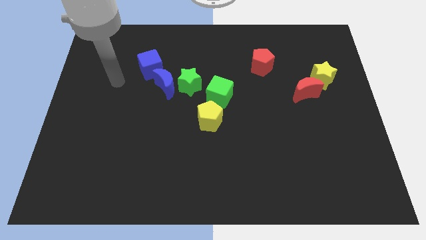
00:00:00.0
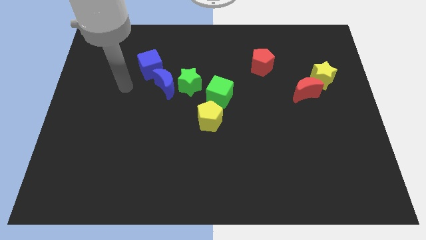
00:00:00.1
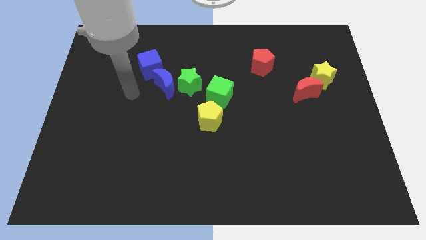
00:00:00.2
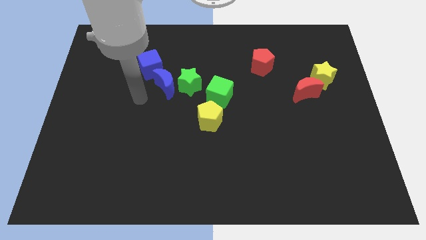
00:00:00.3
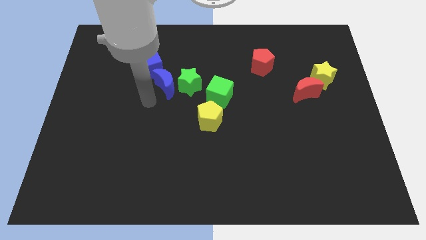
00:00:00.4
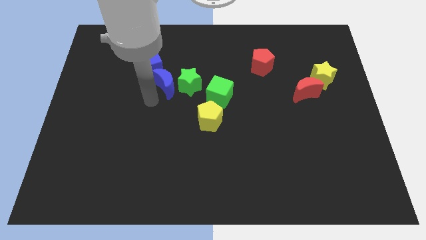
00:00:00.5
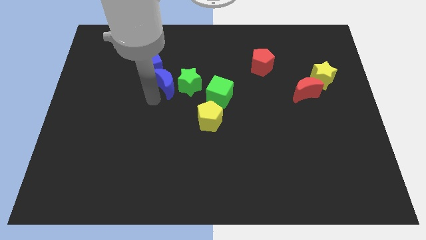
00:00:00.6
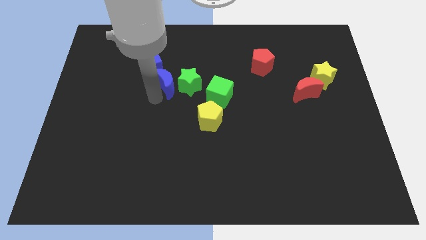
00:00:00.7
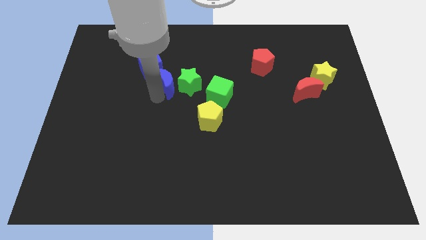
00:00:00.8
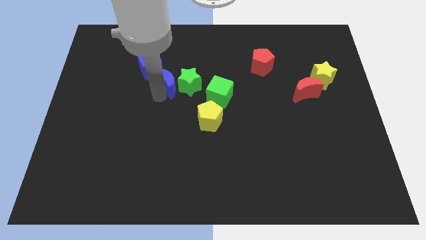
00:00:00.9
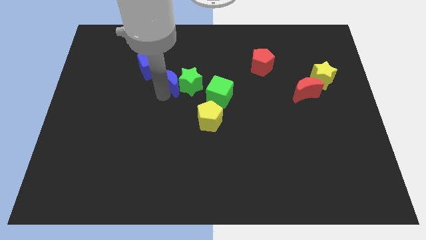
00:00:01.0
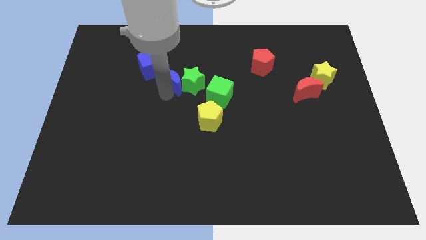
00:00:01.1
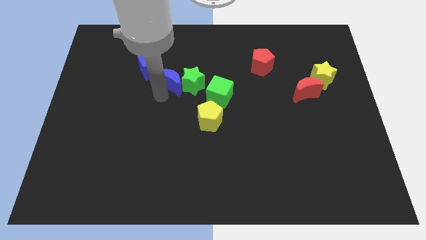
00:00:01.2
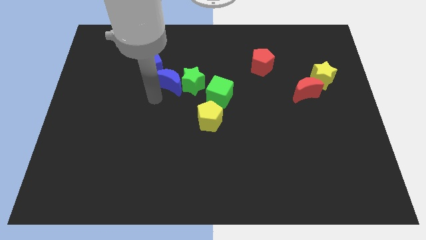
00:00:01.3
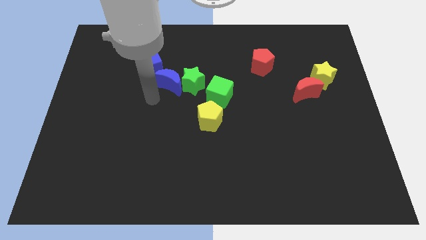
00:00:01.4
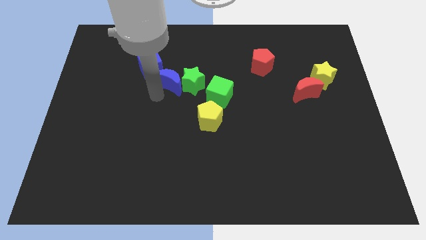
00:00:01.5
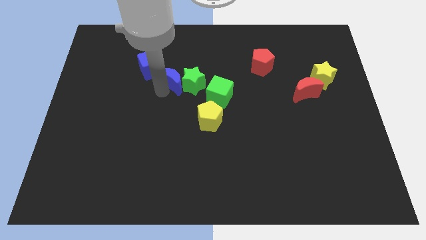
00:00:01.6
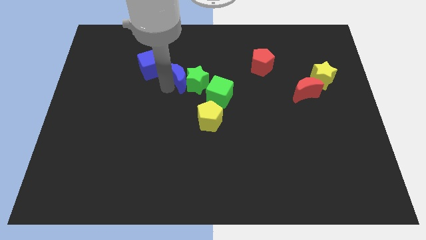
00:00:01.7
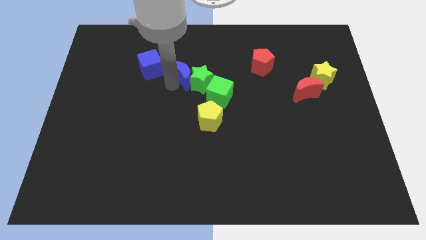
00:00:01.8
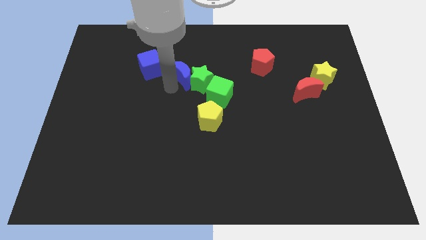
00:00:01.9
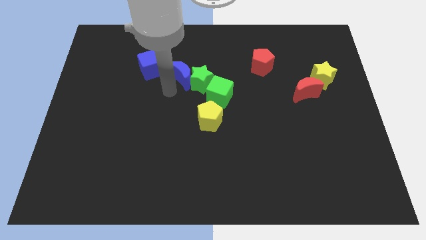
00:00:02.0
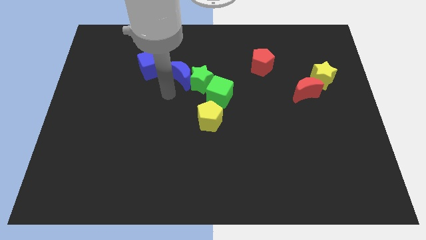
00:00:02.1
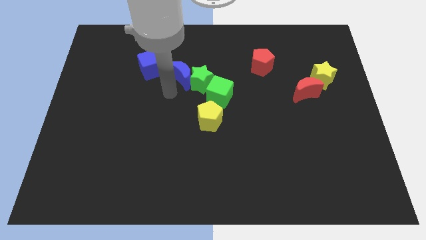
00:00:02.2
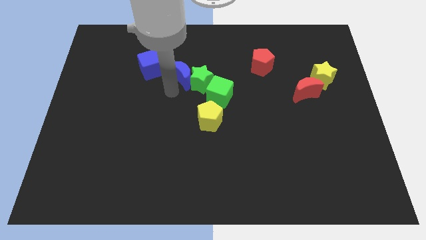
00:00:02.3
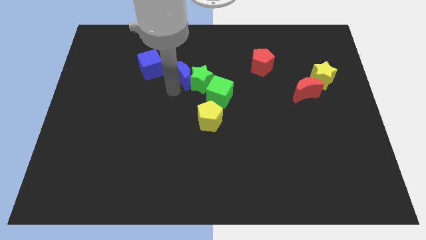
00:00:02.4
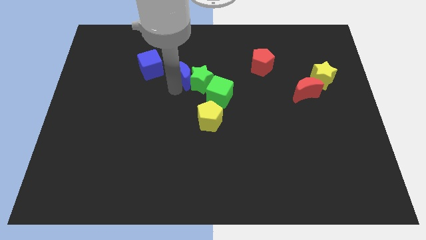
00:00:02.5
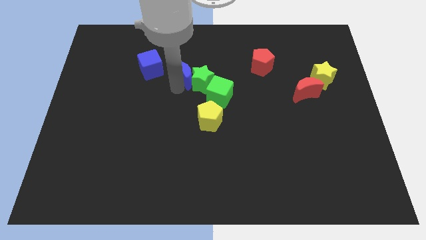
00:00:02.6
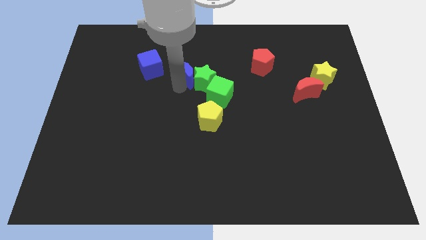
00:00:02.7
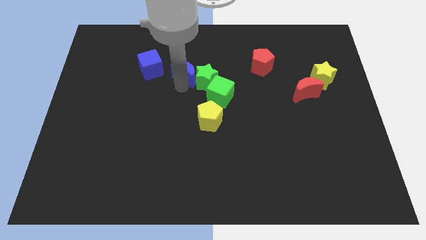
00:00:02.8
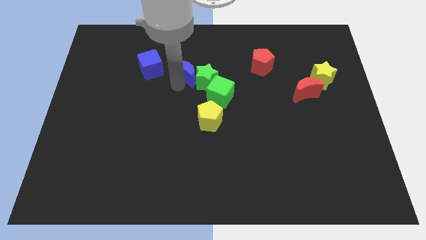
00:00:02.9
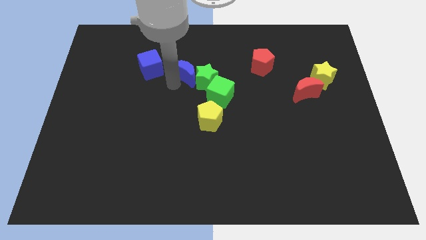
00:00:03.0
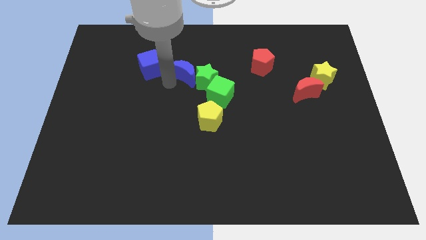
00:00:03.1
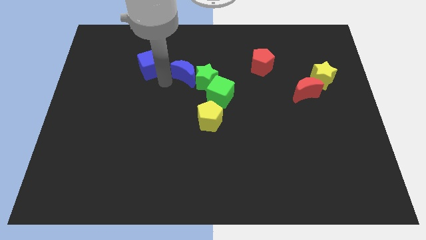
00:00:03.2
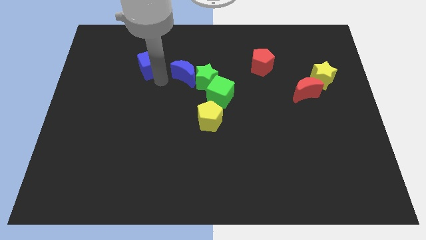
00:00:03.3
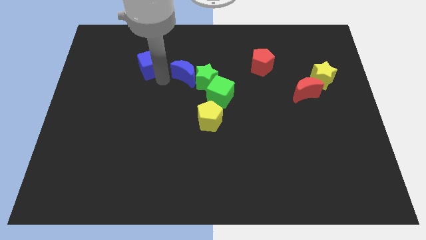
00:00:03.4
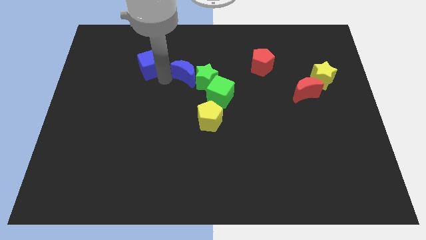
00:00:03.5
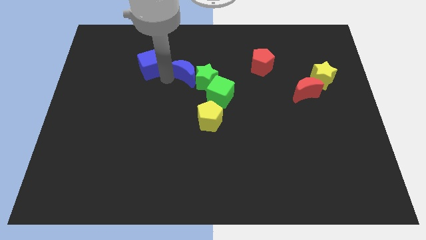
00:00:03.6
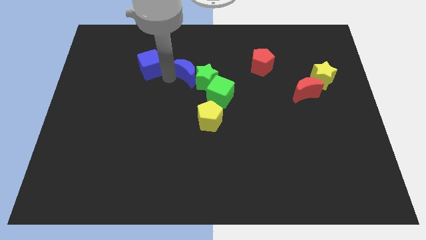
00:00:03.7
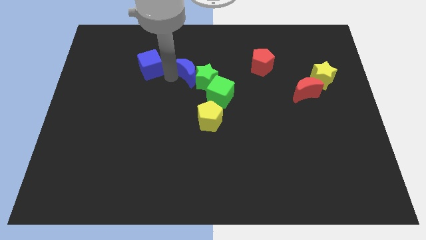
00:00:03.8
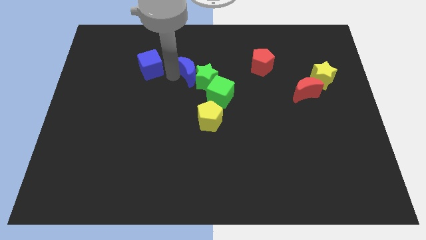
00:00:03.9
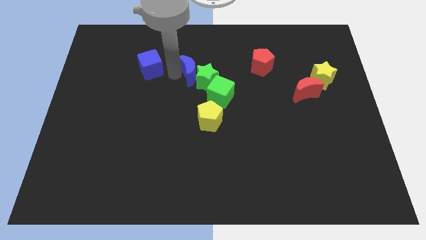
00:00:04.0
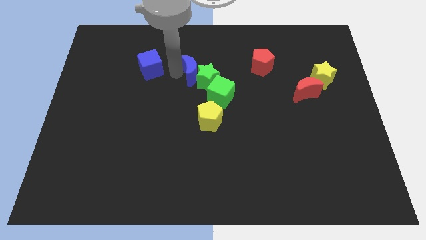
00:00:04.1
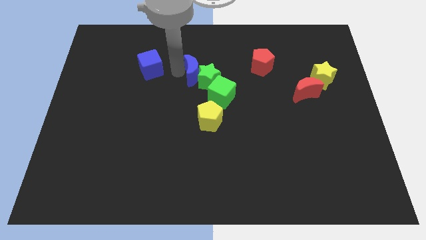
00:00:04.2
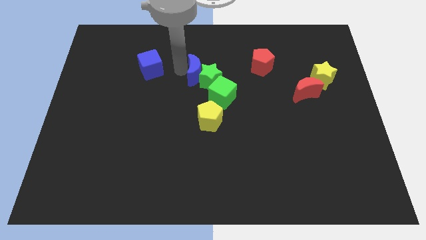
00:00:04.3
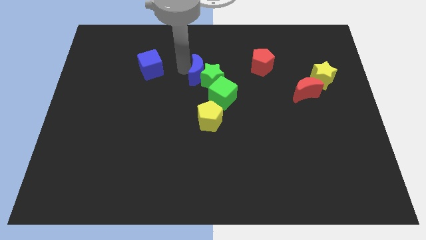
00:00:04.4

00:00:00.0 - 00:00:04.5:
move the blue moon right slightly

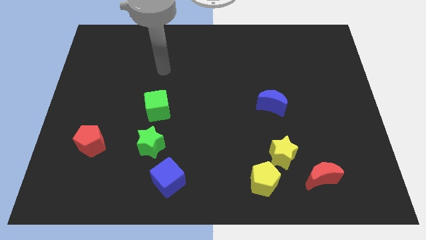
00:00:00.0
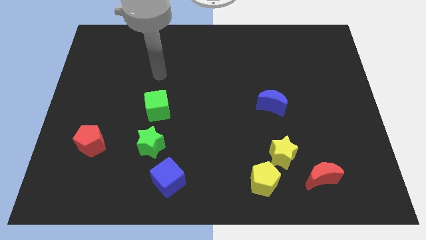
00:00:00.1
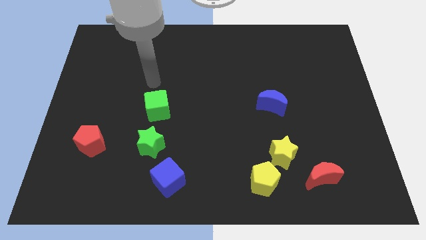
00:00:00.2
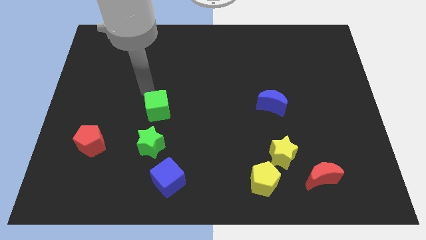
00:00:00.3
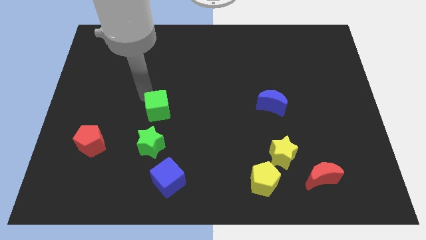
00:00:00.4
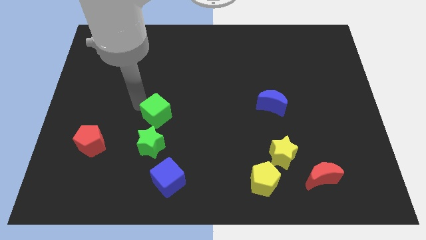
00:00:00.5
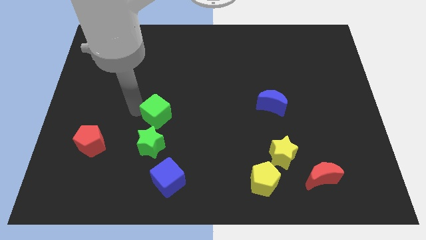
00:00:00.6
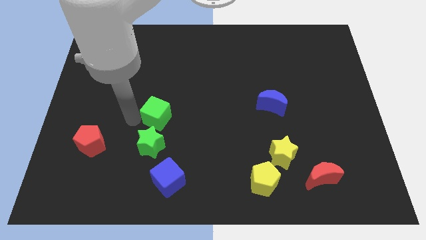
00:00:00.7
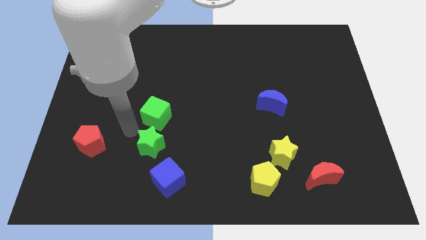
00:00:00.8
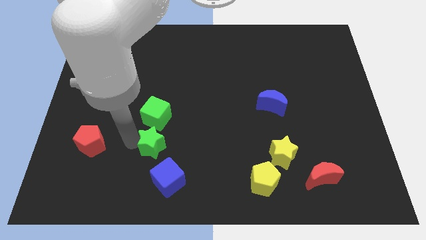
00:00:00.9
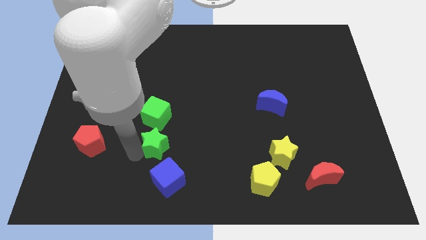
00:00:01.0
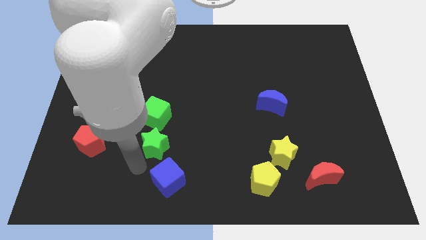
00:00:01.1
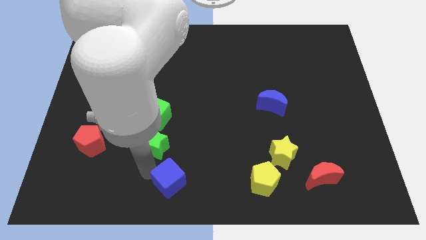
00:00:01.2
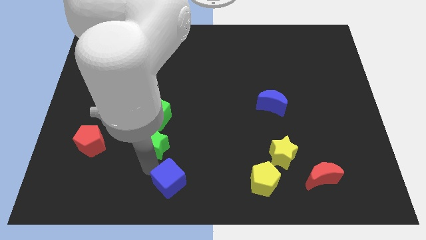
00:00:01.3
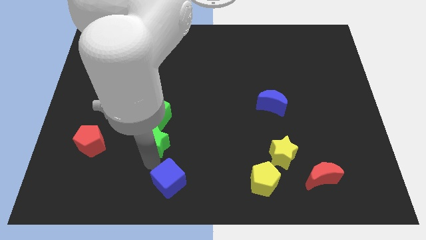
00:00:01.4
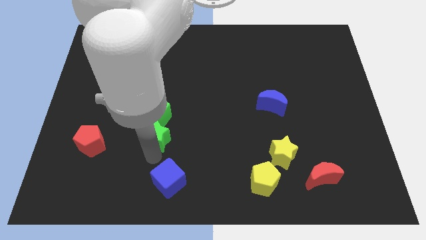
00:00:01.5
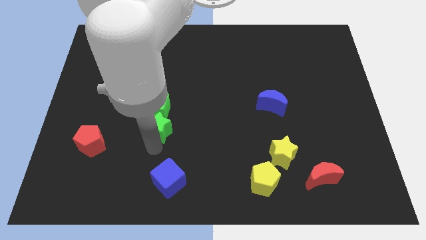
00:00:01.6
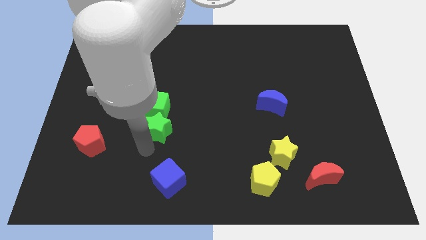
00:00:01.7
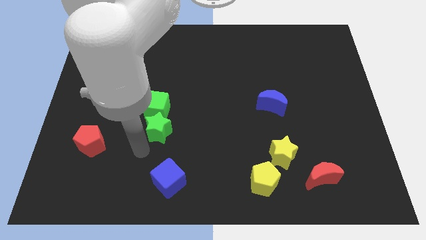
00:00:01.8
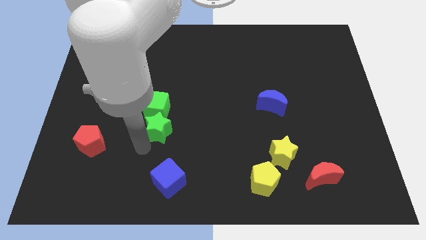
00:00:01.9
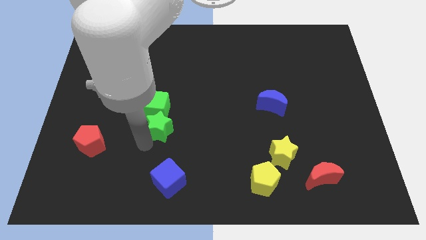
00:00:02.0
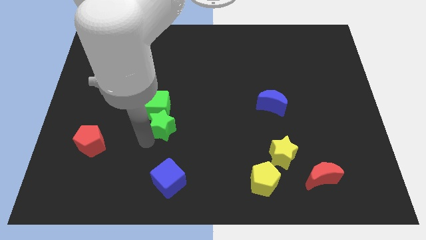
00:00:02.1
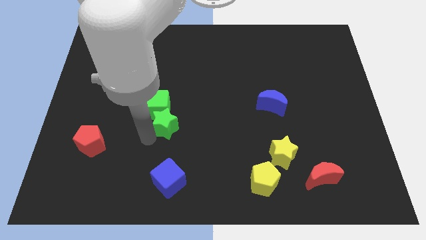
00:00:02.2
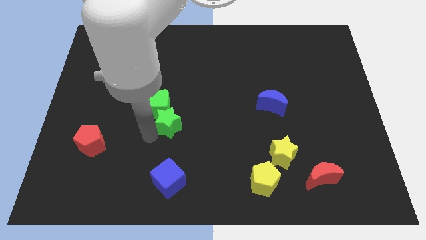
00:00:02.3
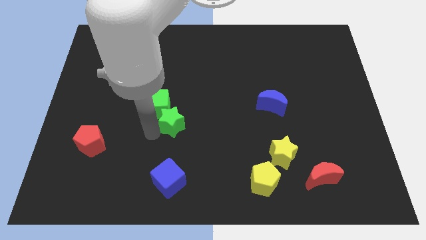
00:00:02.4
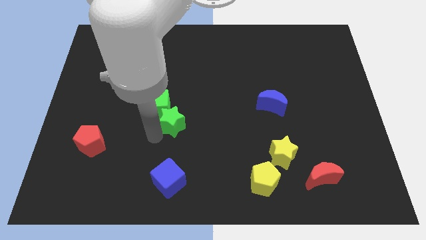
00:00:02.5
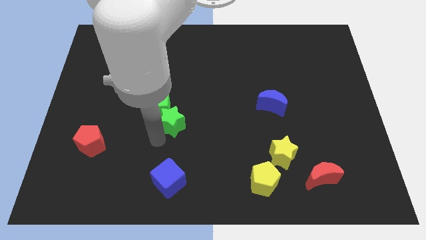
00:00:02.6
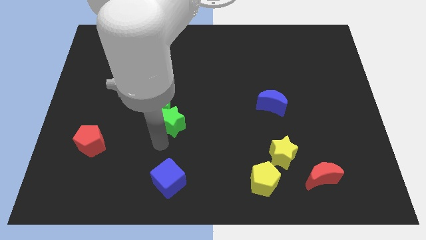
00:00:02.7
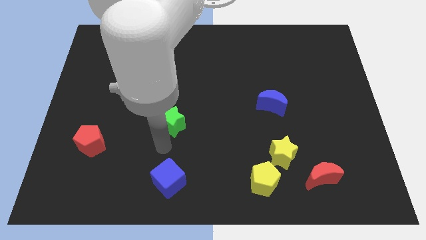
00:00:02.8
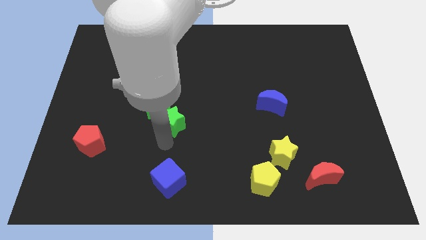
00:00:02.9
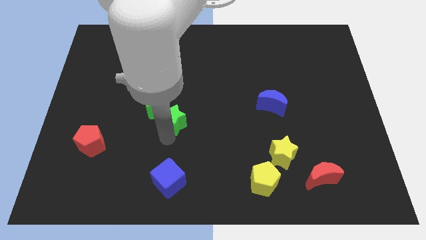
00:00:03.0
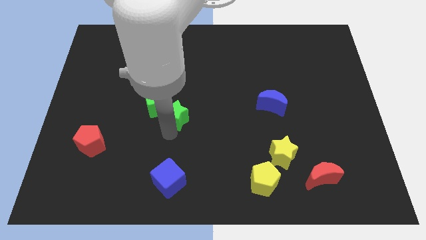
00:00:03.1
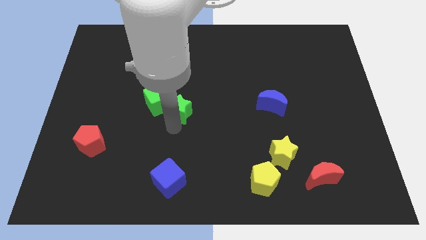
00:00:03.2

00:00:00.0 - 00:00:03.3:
slide the green star upwards a little bit
